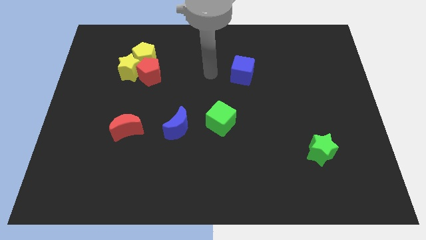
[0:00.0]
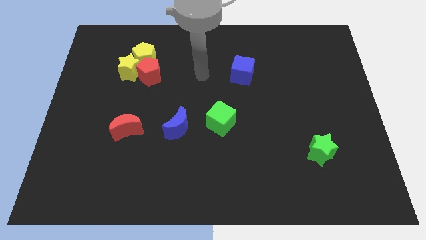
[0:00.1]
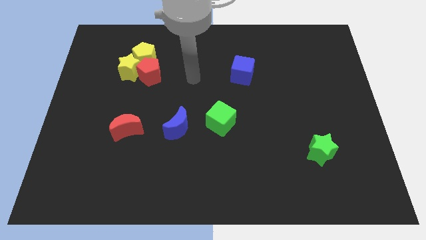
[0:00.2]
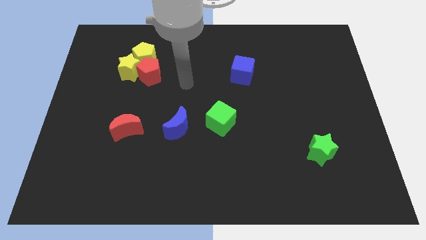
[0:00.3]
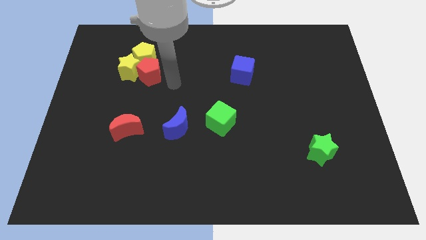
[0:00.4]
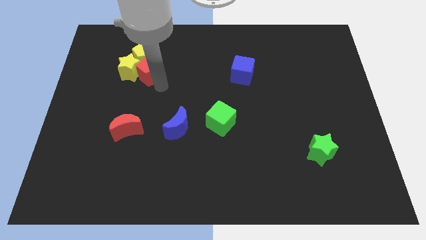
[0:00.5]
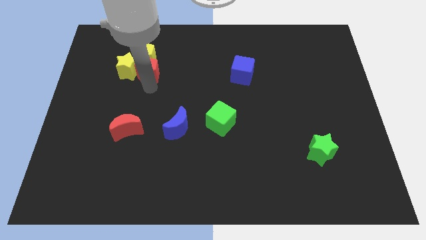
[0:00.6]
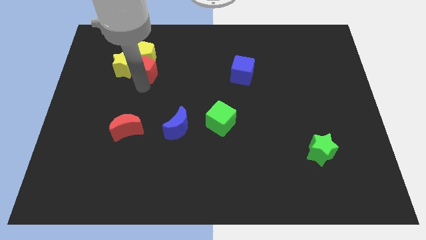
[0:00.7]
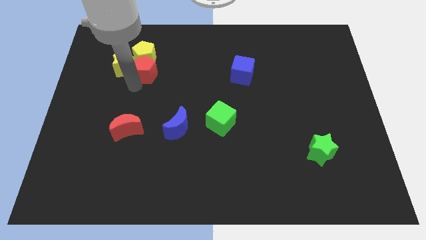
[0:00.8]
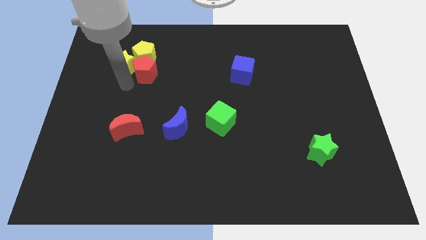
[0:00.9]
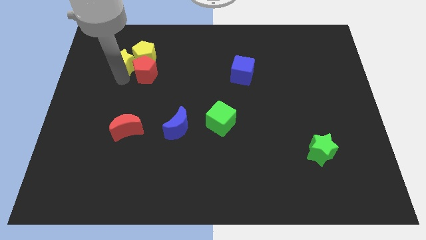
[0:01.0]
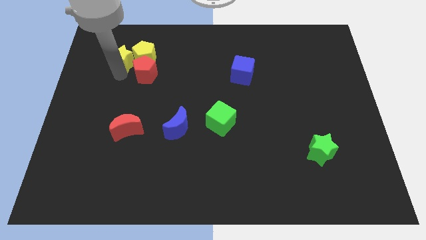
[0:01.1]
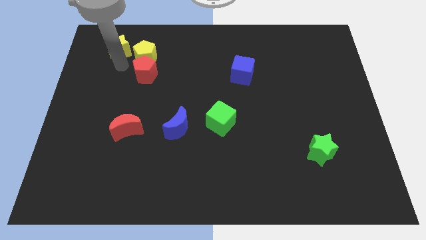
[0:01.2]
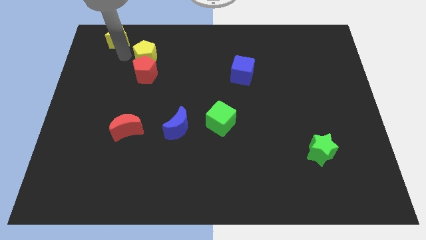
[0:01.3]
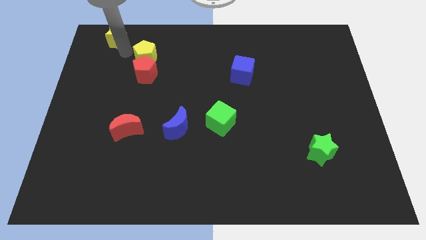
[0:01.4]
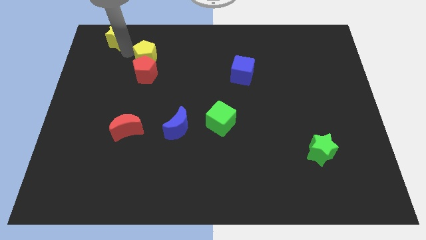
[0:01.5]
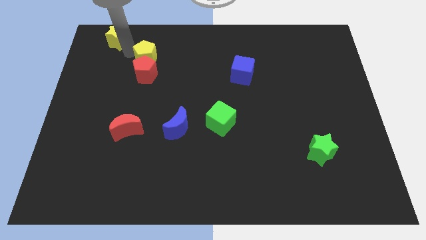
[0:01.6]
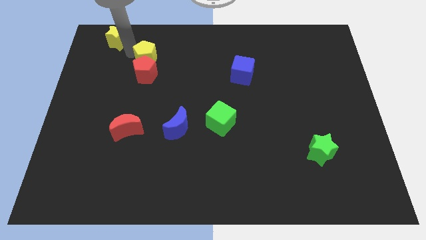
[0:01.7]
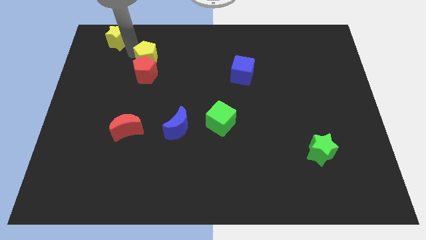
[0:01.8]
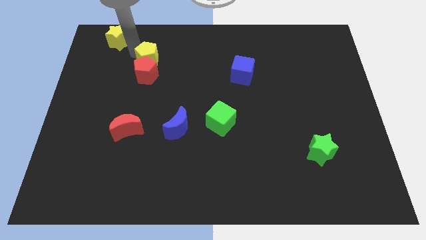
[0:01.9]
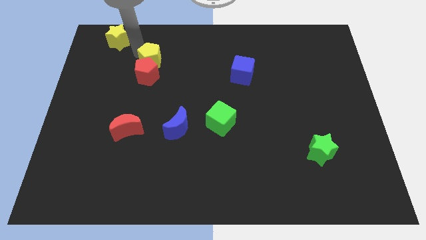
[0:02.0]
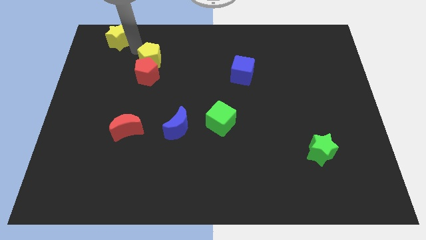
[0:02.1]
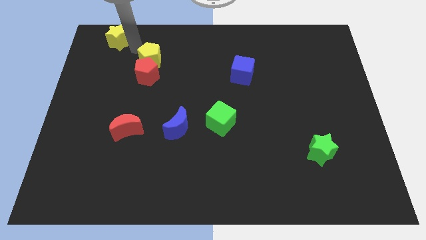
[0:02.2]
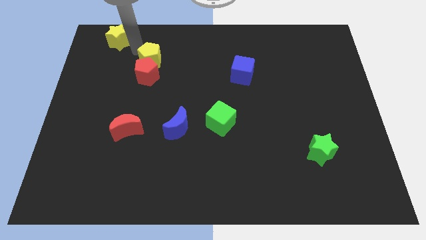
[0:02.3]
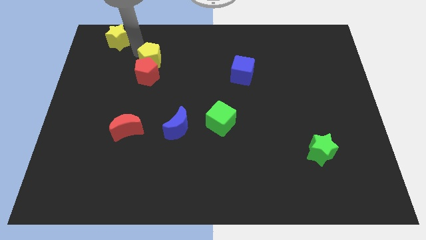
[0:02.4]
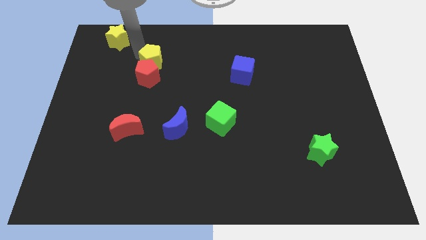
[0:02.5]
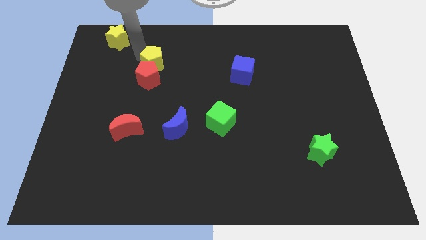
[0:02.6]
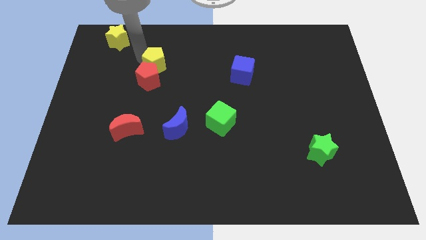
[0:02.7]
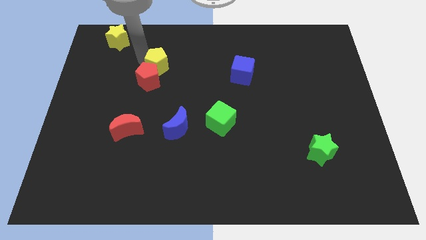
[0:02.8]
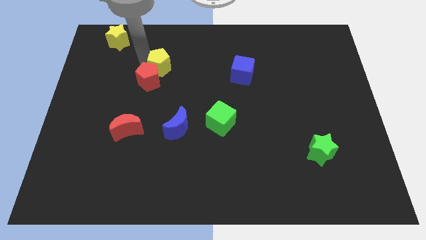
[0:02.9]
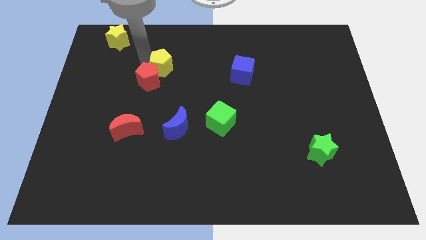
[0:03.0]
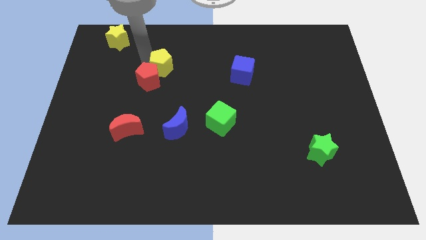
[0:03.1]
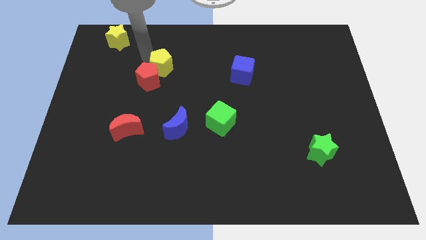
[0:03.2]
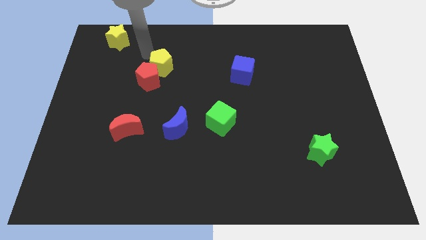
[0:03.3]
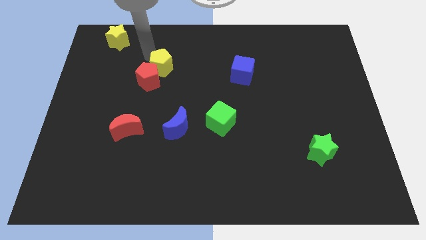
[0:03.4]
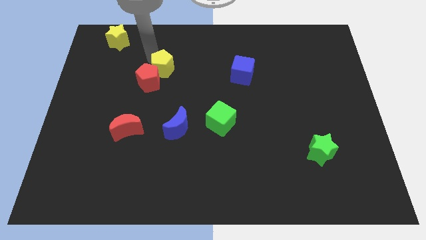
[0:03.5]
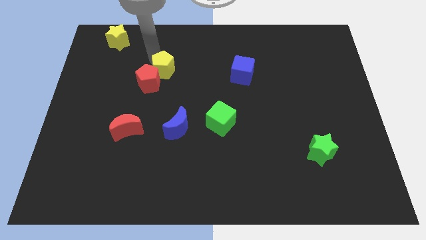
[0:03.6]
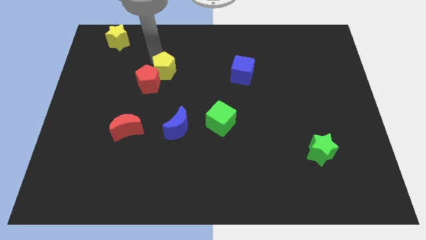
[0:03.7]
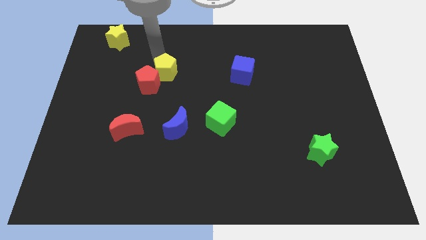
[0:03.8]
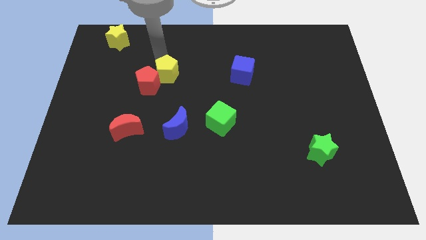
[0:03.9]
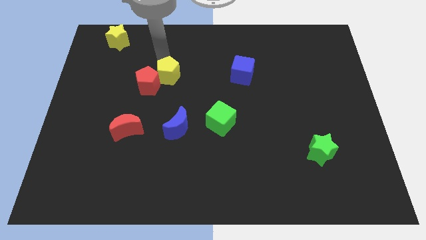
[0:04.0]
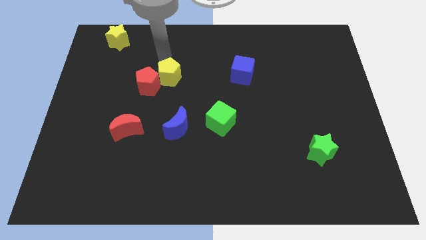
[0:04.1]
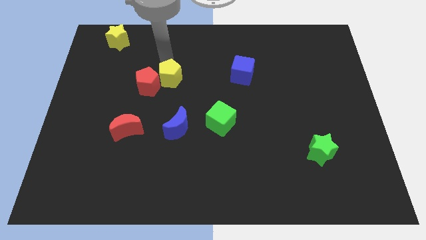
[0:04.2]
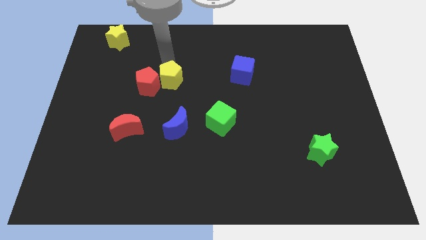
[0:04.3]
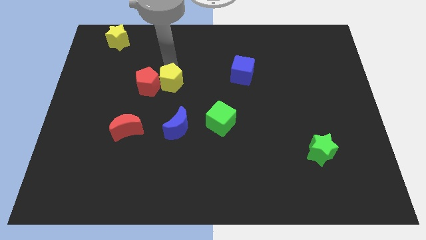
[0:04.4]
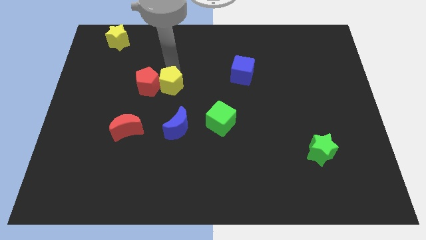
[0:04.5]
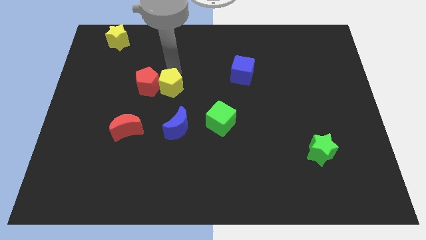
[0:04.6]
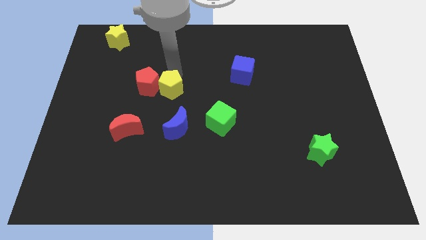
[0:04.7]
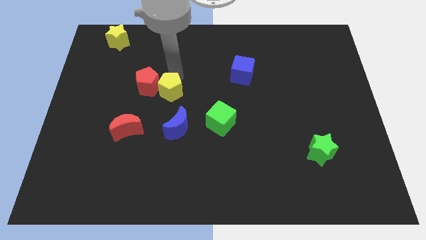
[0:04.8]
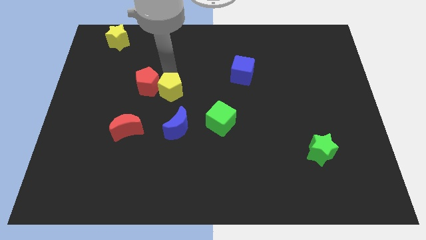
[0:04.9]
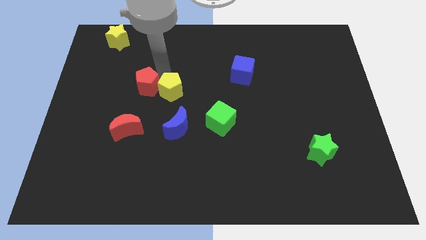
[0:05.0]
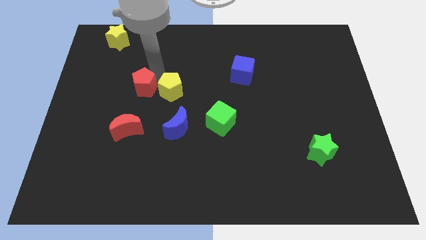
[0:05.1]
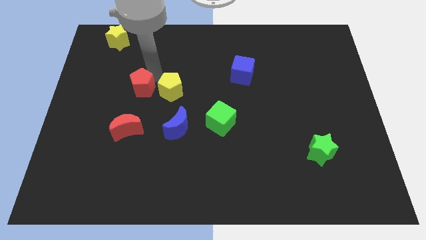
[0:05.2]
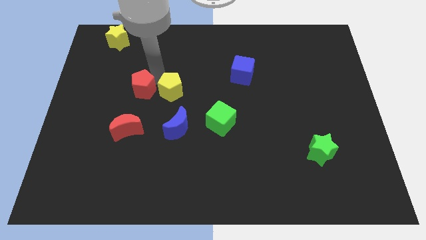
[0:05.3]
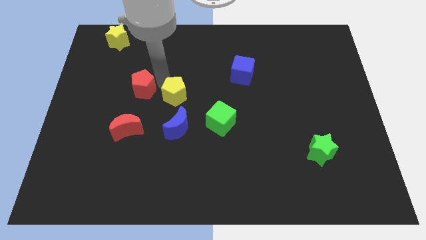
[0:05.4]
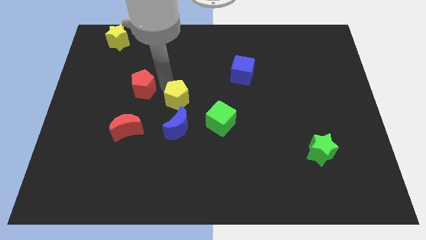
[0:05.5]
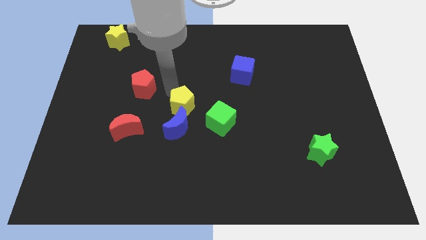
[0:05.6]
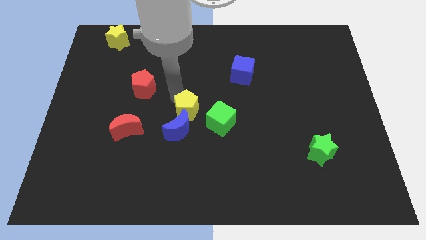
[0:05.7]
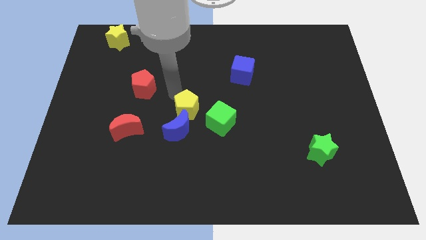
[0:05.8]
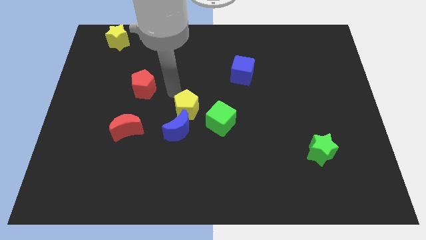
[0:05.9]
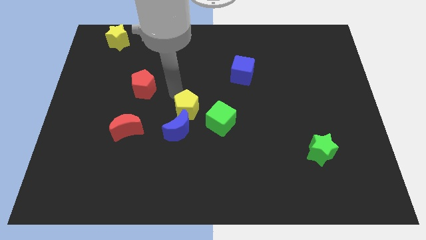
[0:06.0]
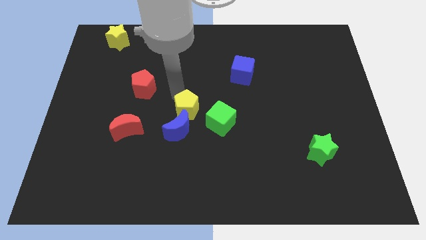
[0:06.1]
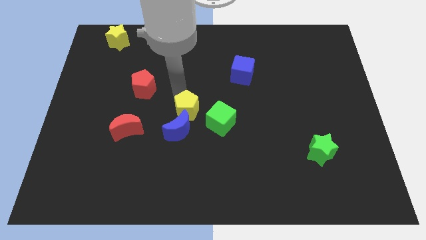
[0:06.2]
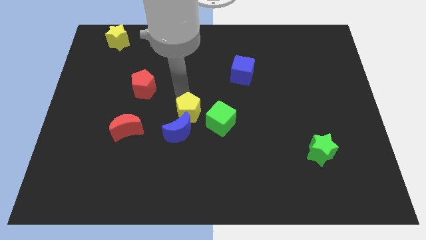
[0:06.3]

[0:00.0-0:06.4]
push the yellow pentagon downwards and right diagonally

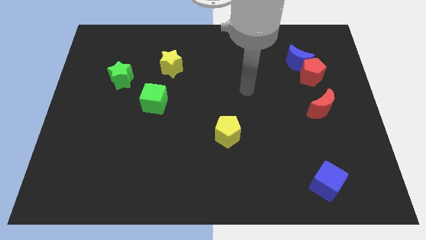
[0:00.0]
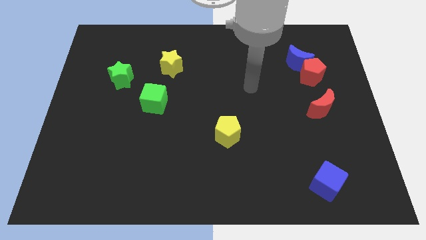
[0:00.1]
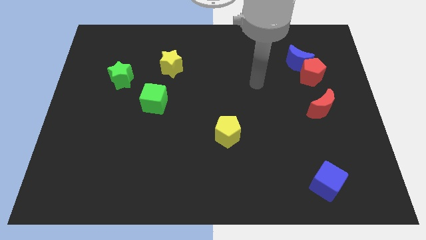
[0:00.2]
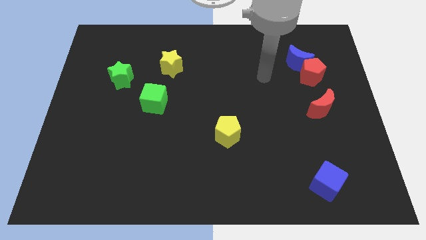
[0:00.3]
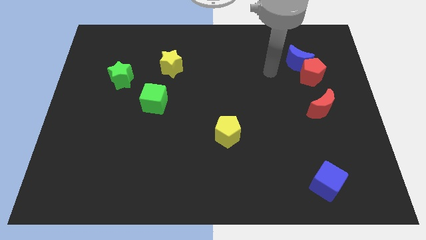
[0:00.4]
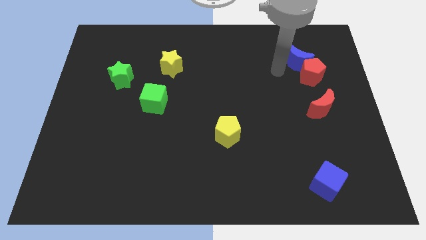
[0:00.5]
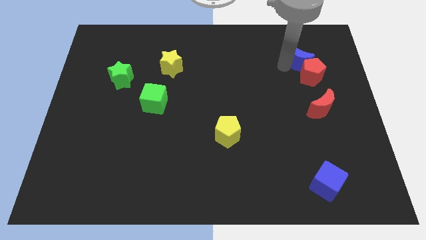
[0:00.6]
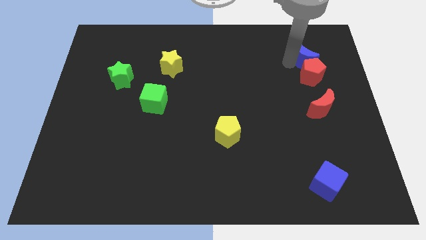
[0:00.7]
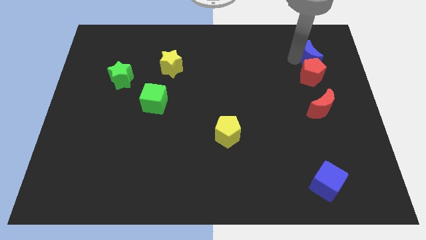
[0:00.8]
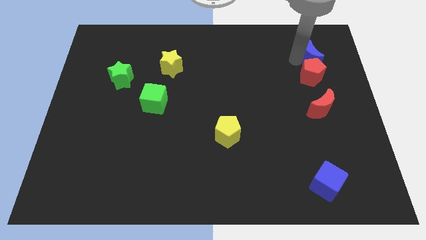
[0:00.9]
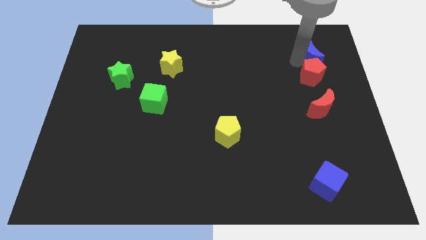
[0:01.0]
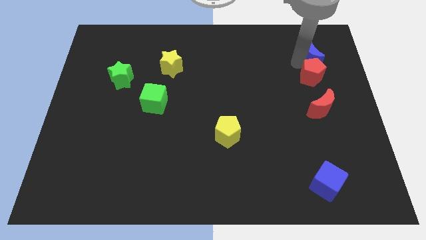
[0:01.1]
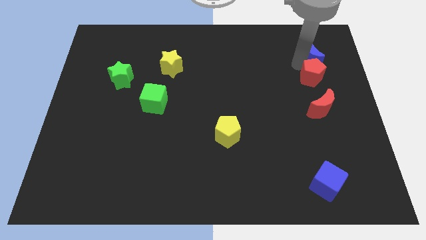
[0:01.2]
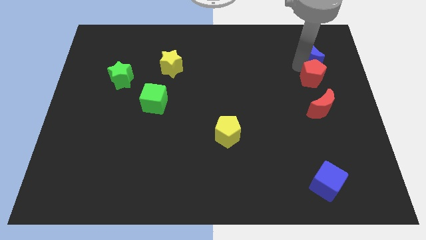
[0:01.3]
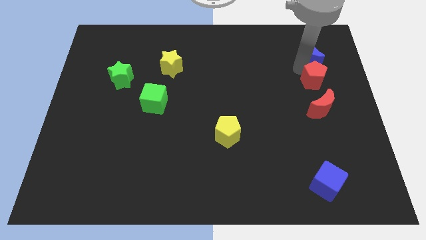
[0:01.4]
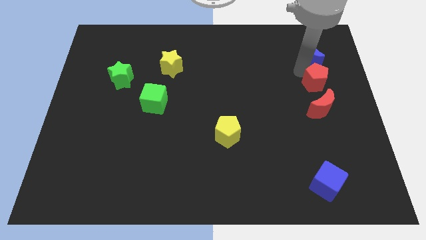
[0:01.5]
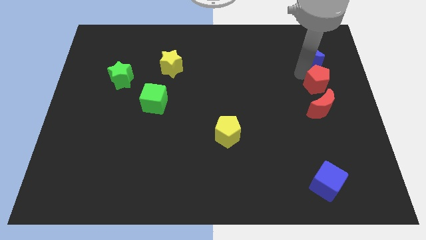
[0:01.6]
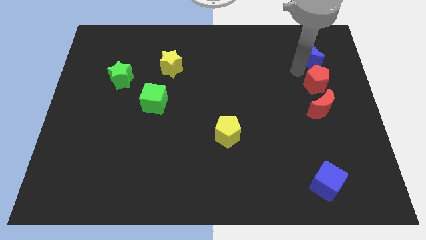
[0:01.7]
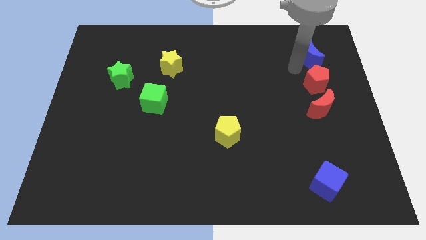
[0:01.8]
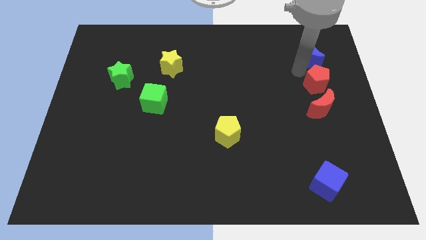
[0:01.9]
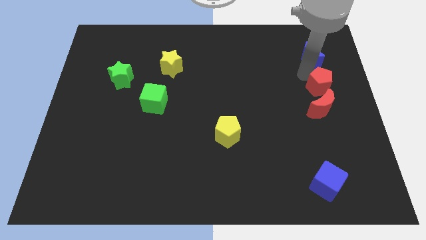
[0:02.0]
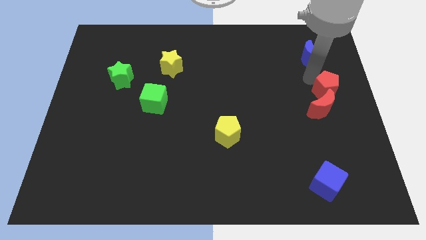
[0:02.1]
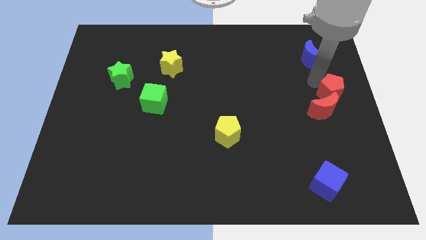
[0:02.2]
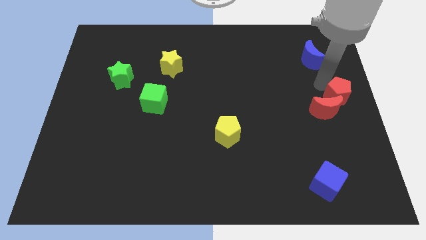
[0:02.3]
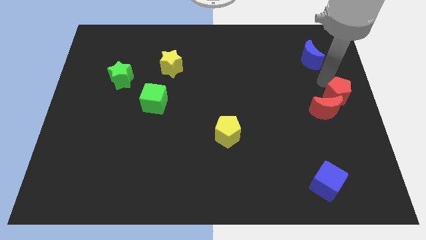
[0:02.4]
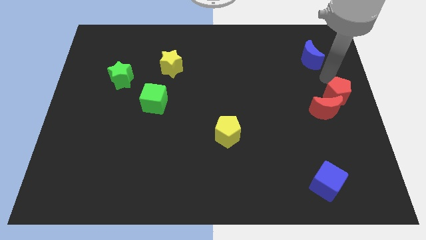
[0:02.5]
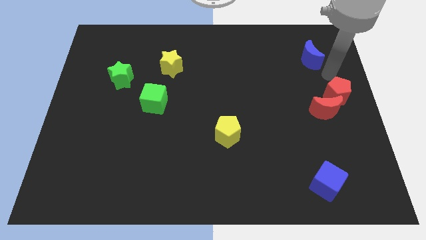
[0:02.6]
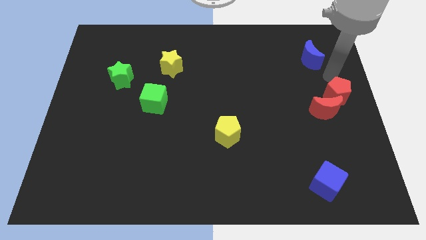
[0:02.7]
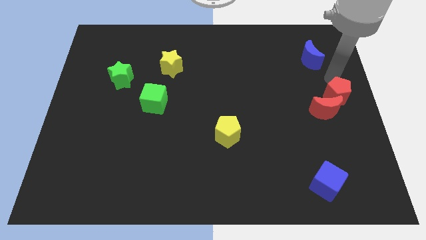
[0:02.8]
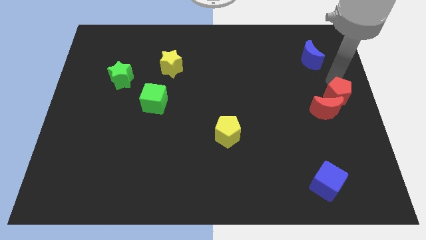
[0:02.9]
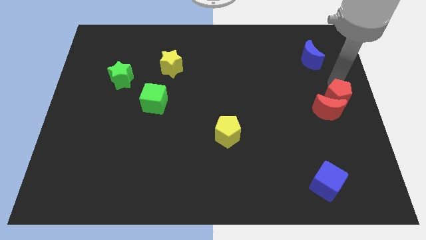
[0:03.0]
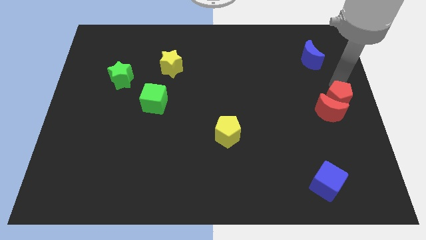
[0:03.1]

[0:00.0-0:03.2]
push the red pentagon down a little
